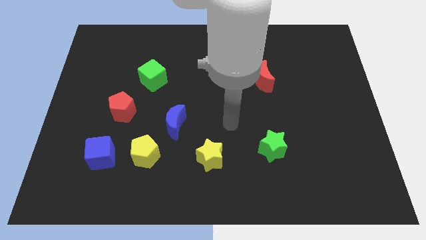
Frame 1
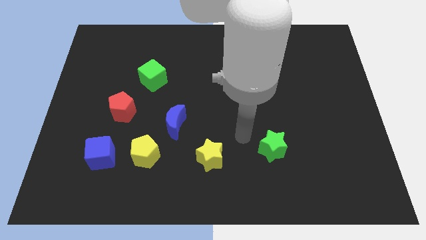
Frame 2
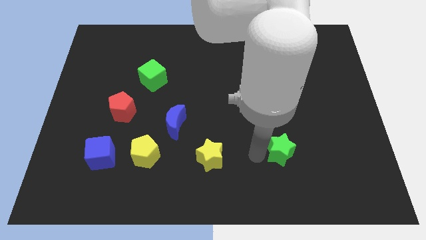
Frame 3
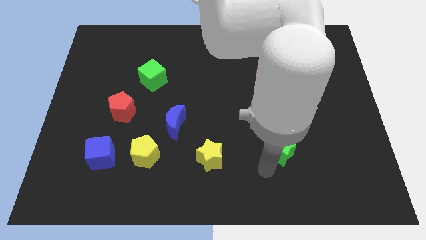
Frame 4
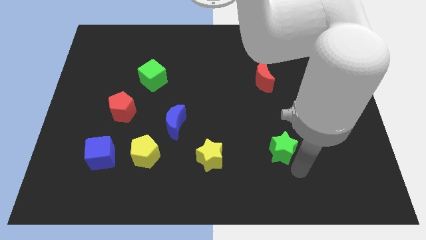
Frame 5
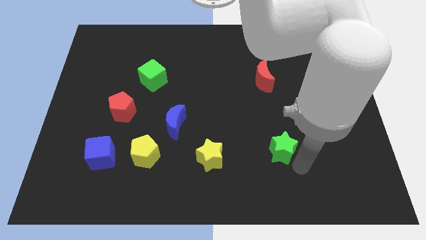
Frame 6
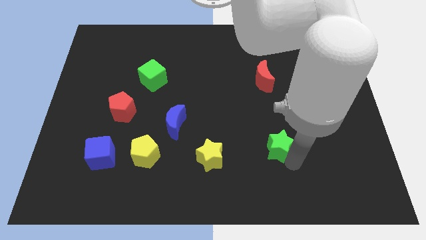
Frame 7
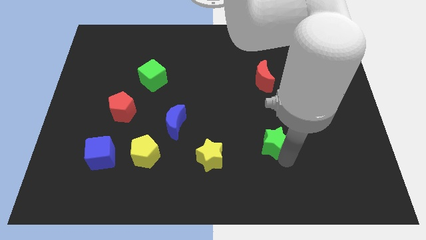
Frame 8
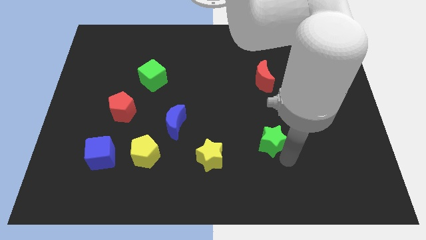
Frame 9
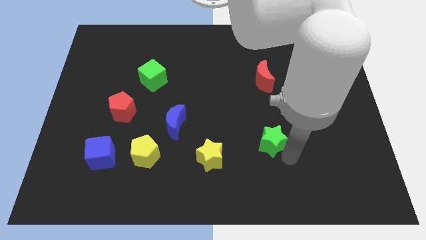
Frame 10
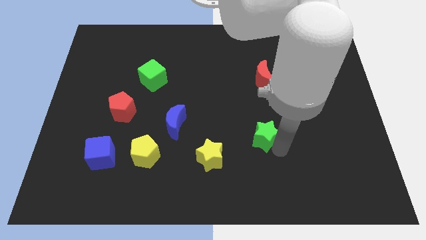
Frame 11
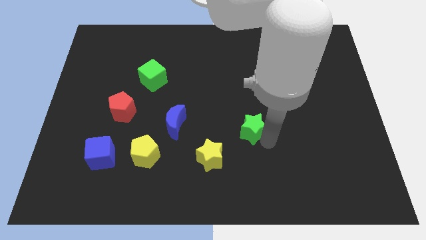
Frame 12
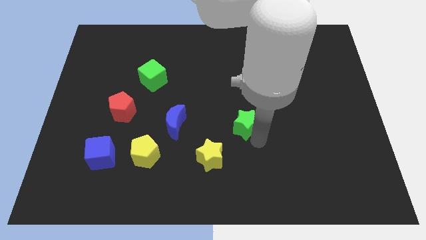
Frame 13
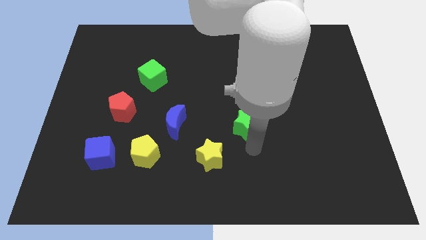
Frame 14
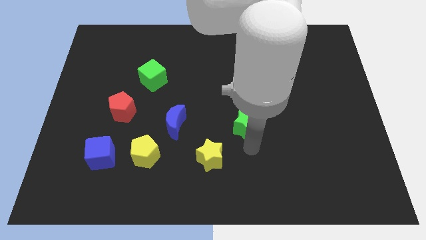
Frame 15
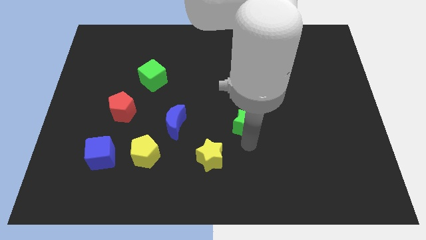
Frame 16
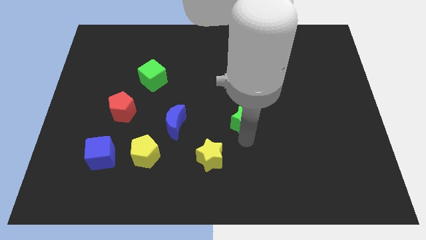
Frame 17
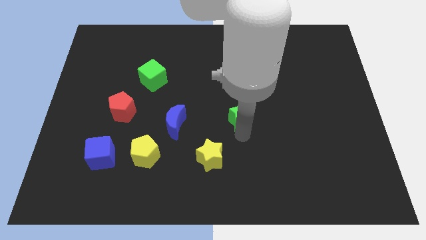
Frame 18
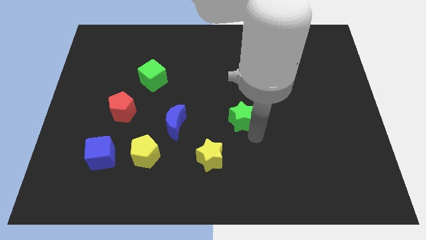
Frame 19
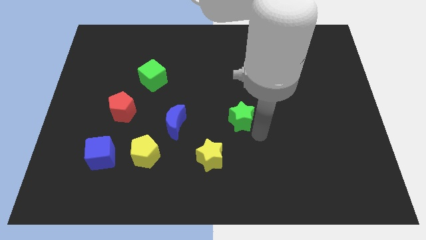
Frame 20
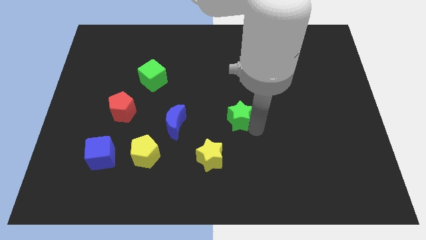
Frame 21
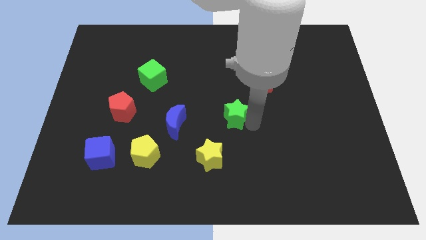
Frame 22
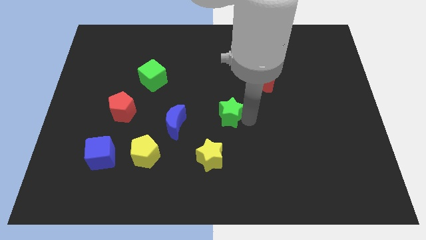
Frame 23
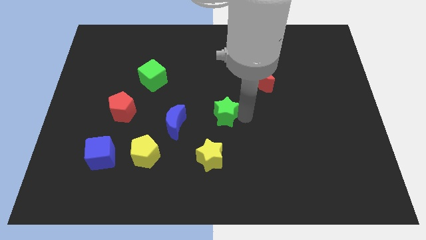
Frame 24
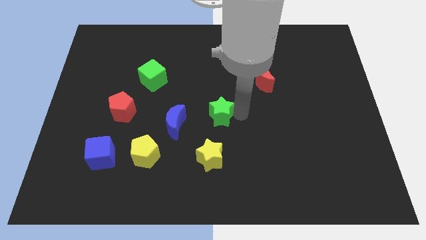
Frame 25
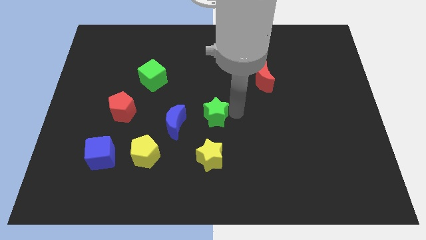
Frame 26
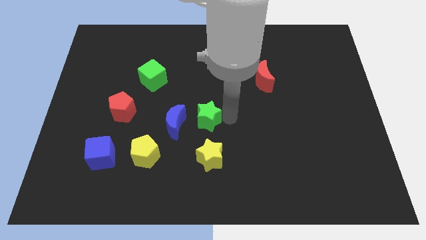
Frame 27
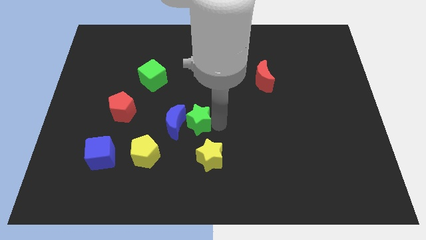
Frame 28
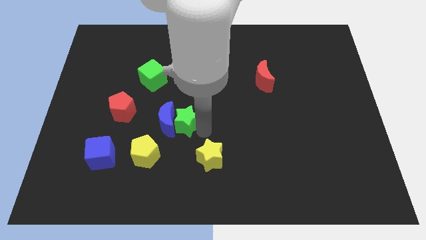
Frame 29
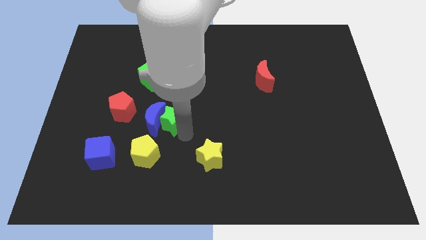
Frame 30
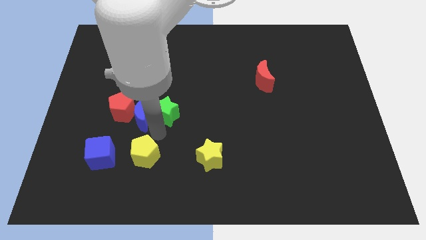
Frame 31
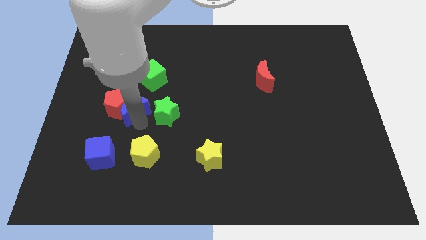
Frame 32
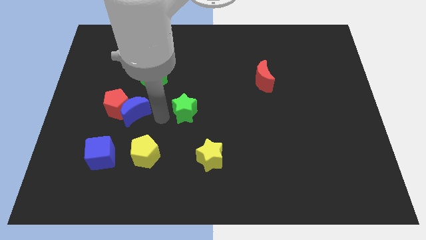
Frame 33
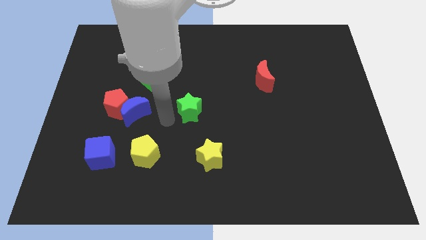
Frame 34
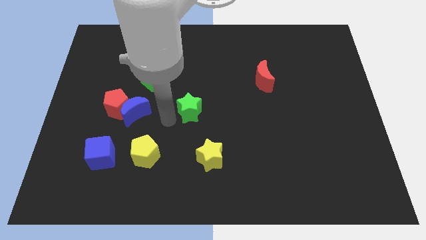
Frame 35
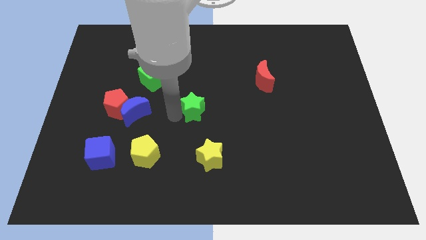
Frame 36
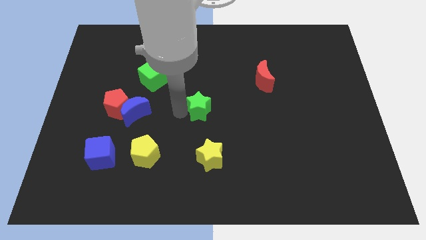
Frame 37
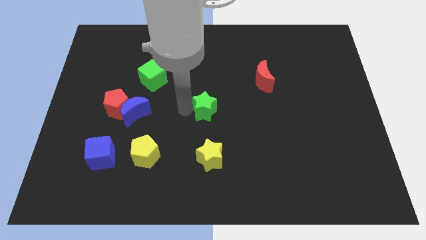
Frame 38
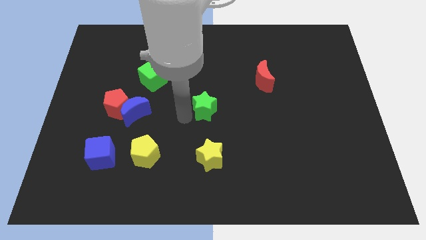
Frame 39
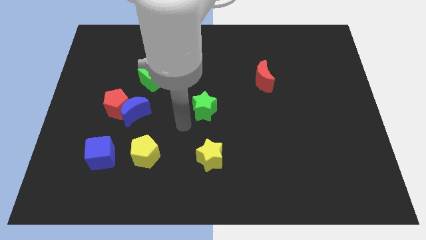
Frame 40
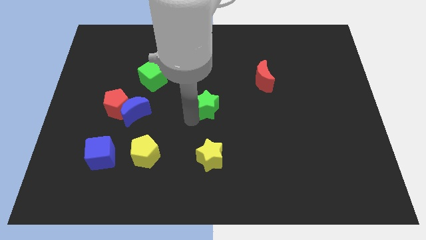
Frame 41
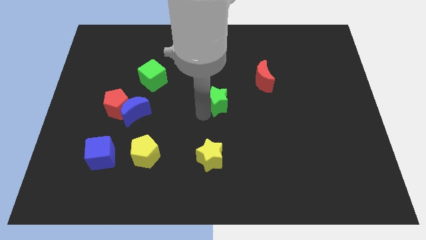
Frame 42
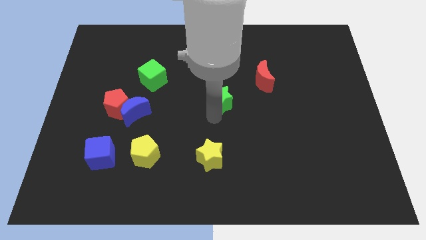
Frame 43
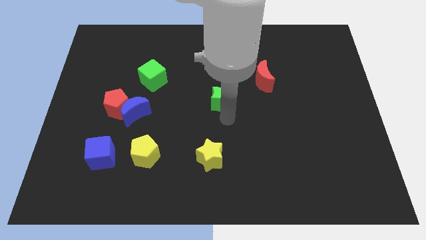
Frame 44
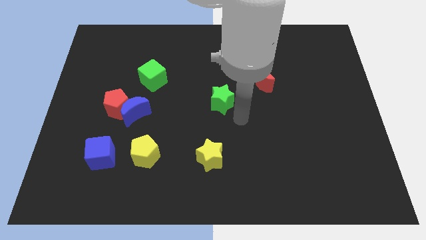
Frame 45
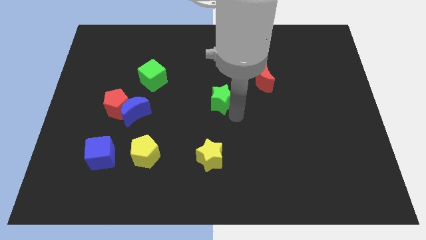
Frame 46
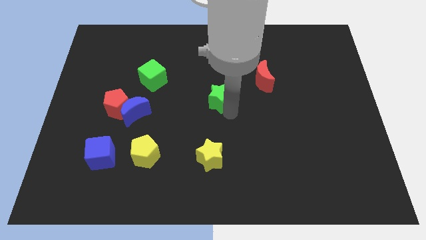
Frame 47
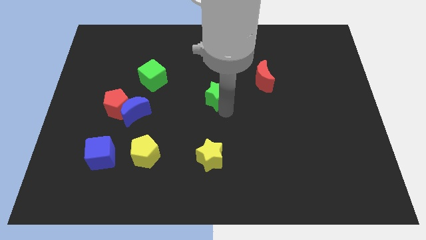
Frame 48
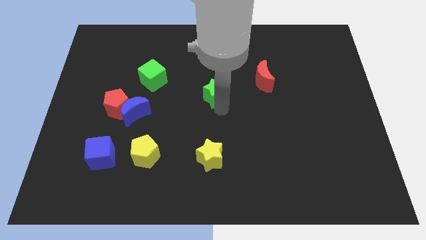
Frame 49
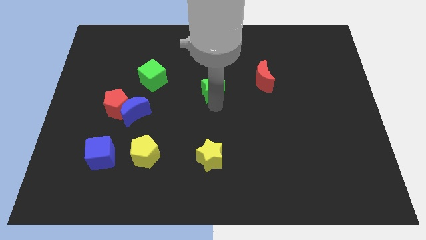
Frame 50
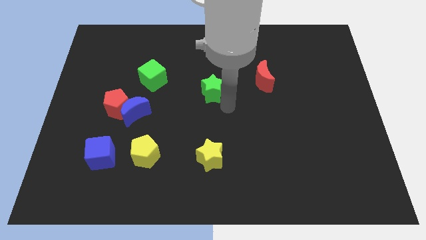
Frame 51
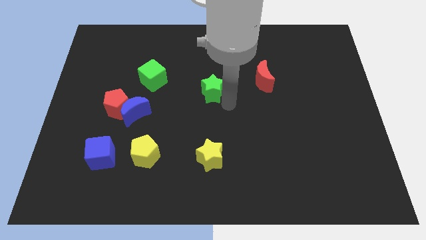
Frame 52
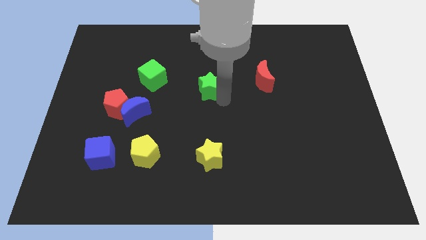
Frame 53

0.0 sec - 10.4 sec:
slide the green star right of the green cube

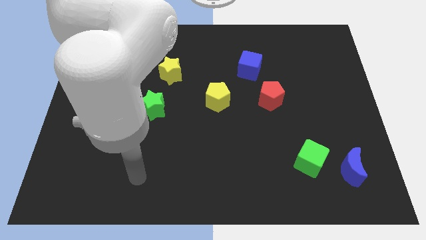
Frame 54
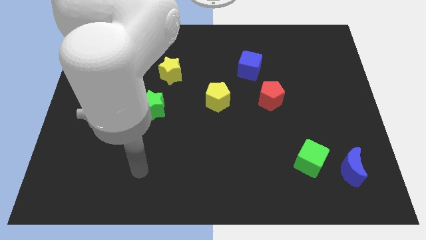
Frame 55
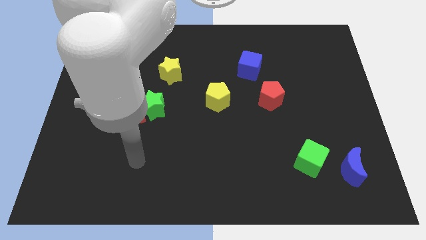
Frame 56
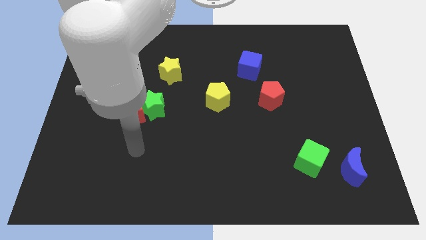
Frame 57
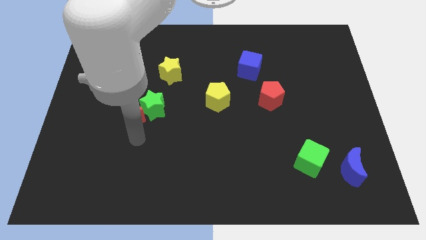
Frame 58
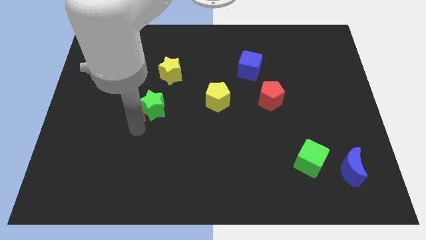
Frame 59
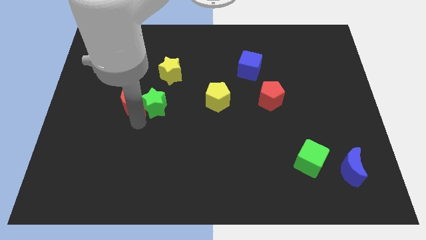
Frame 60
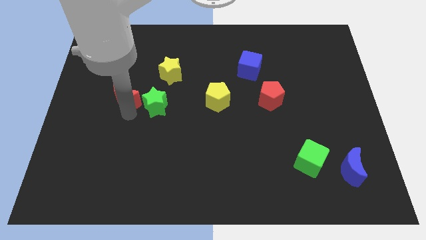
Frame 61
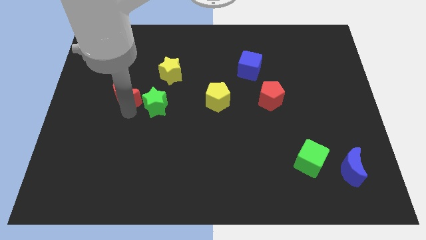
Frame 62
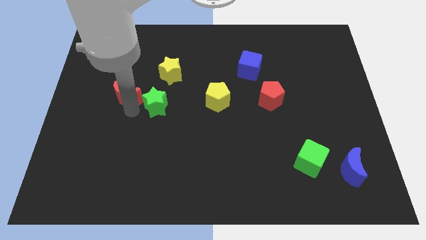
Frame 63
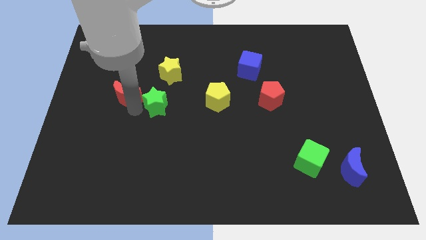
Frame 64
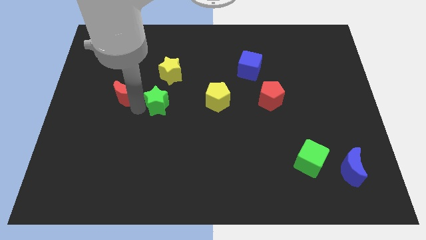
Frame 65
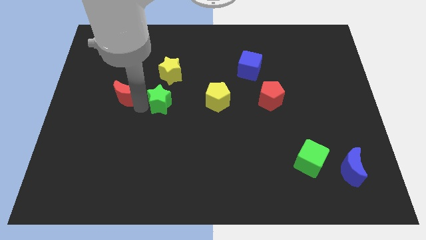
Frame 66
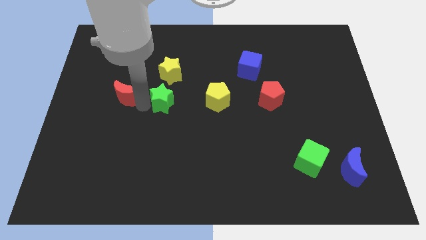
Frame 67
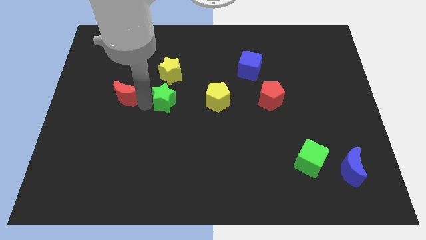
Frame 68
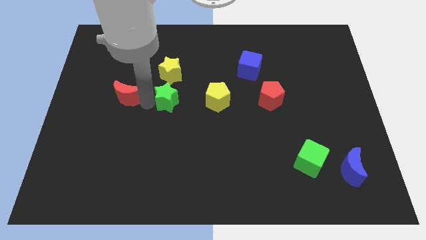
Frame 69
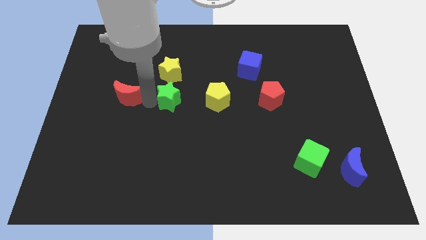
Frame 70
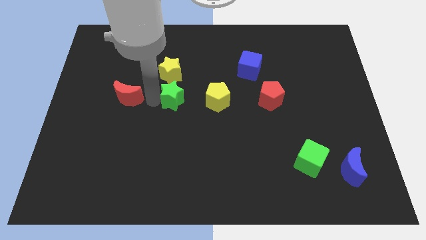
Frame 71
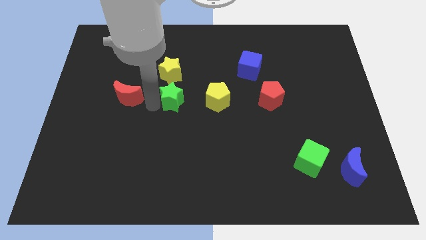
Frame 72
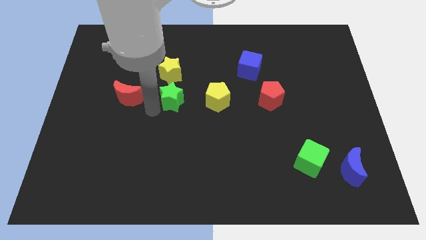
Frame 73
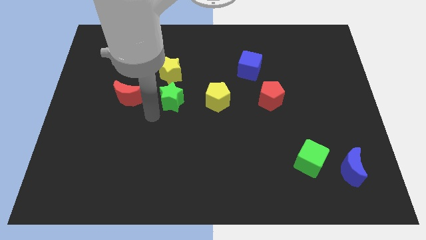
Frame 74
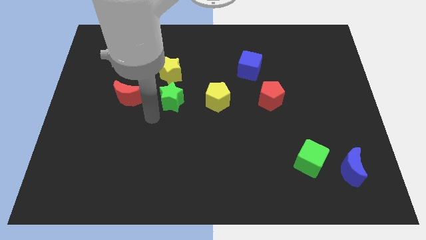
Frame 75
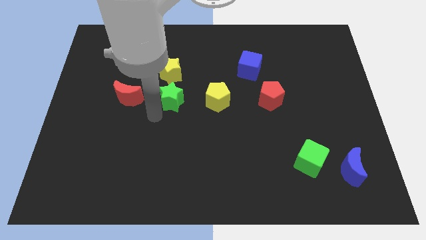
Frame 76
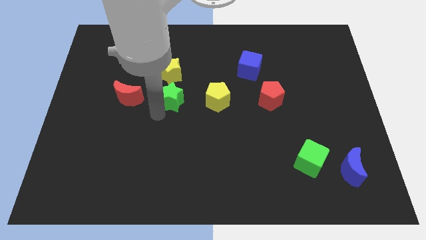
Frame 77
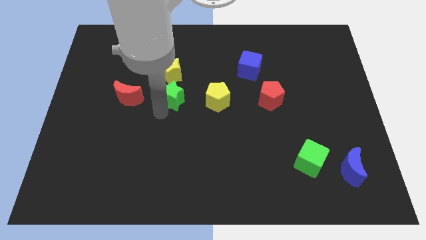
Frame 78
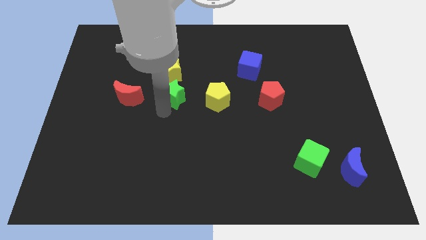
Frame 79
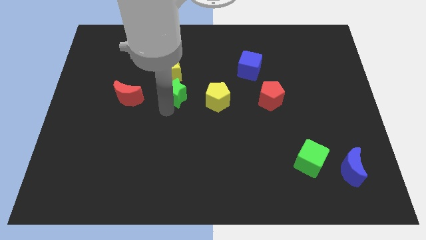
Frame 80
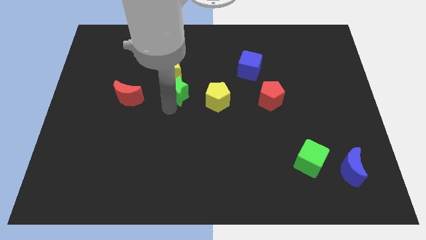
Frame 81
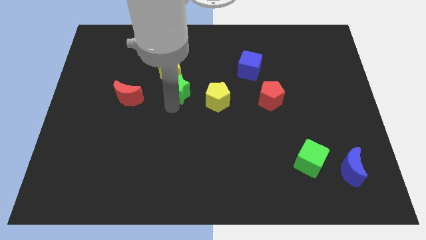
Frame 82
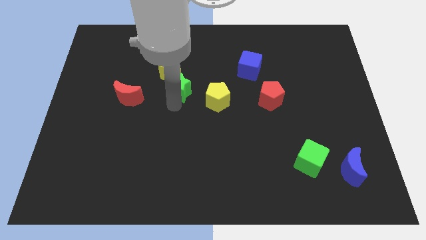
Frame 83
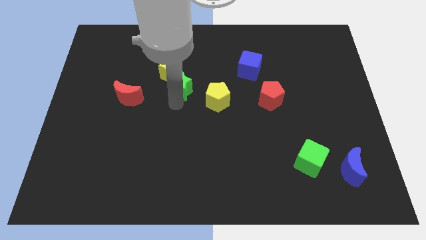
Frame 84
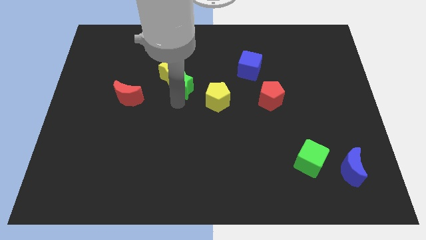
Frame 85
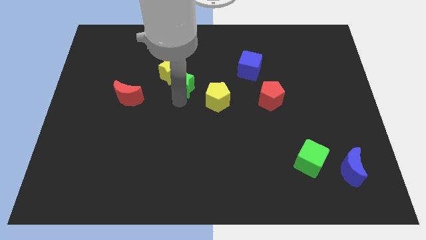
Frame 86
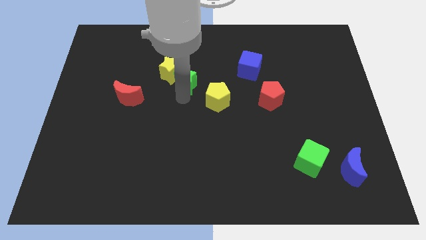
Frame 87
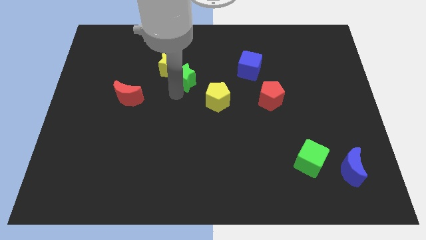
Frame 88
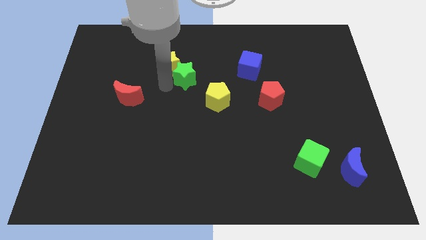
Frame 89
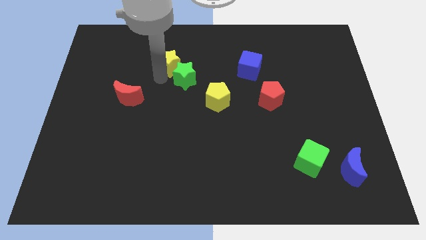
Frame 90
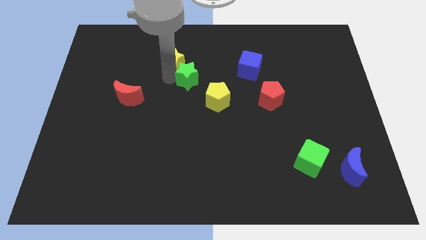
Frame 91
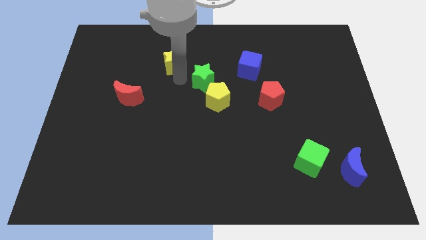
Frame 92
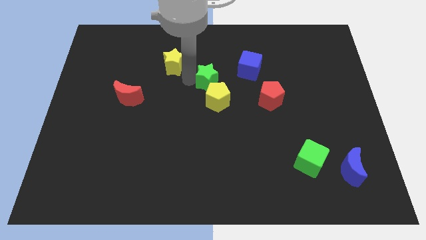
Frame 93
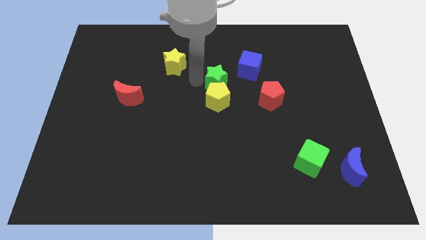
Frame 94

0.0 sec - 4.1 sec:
put the green star to the top right of the yellow pentagon
